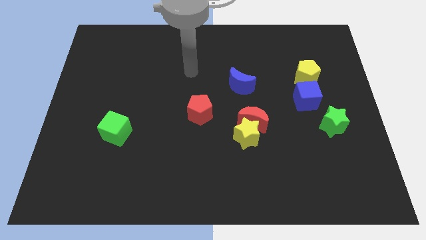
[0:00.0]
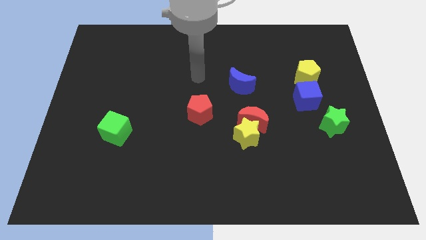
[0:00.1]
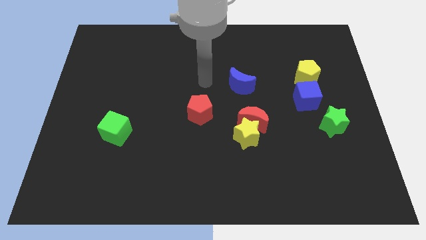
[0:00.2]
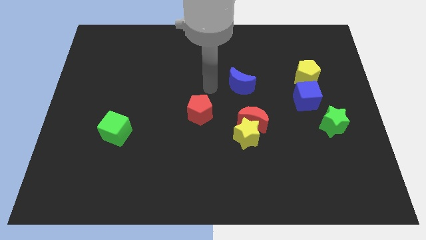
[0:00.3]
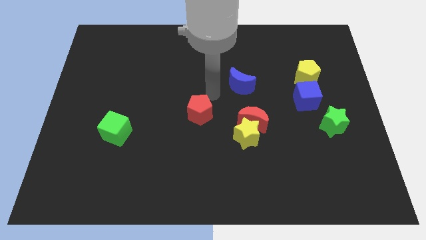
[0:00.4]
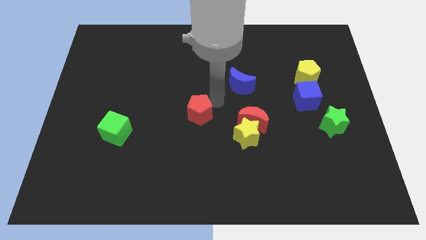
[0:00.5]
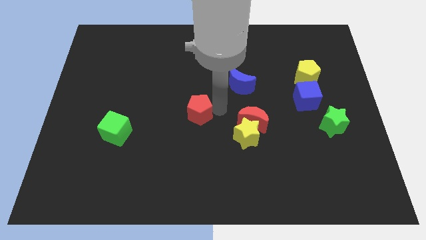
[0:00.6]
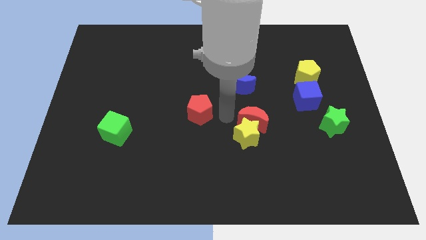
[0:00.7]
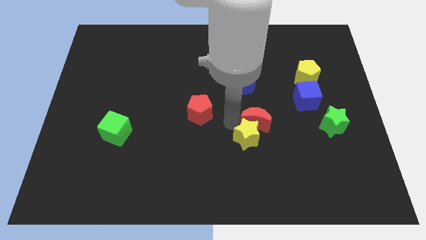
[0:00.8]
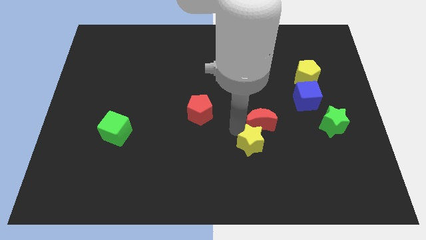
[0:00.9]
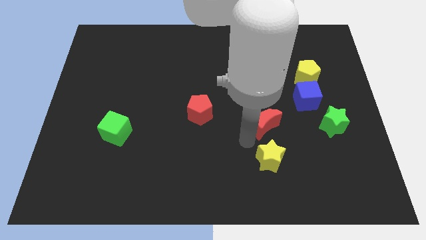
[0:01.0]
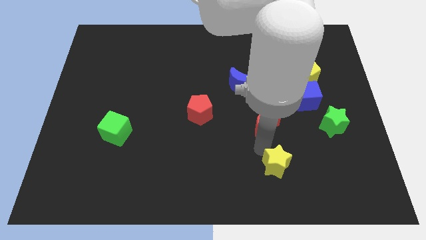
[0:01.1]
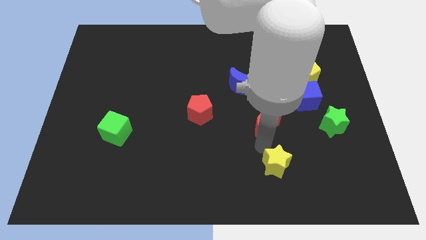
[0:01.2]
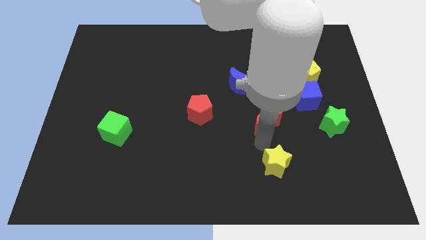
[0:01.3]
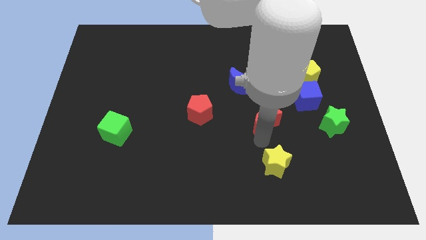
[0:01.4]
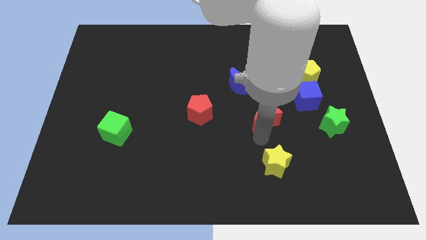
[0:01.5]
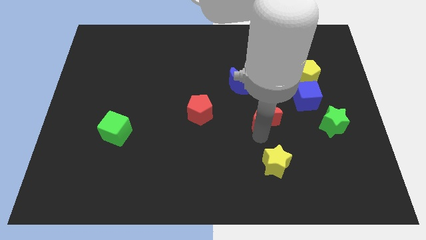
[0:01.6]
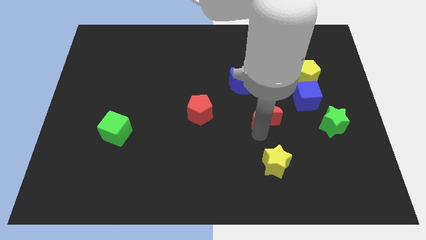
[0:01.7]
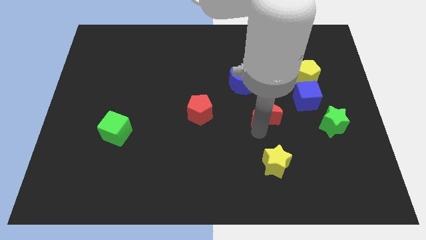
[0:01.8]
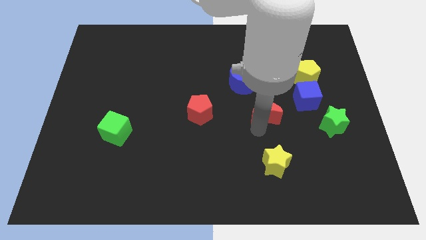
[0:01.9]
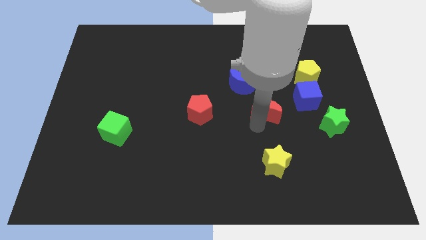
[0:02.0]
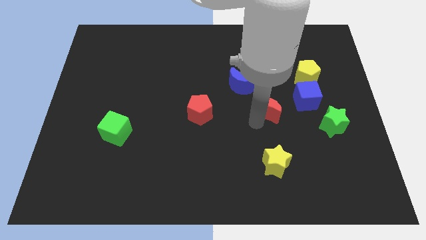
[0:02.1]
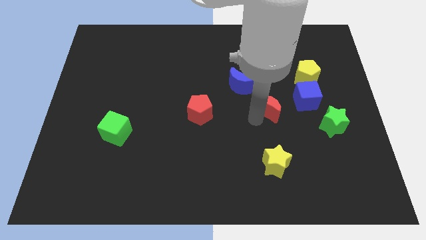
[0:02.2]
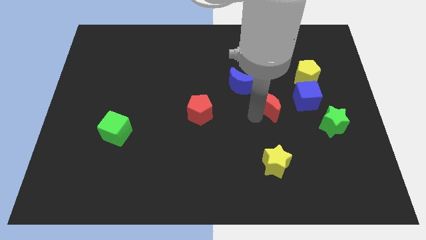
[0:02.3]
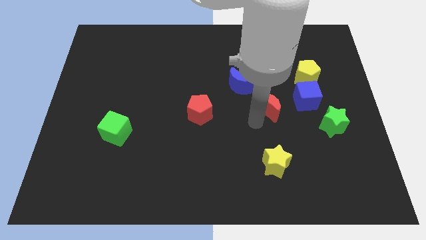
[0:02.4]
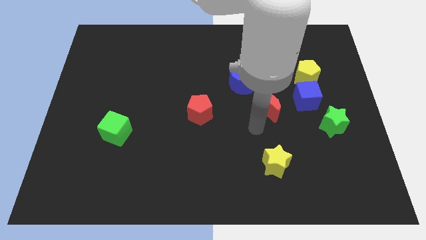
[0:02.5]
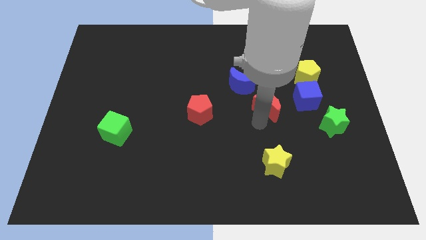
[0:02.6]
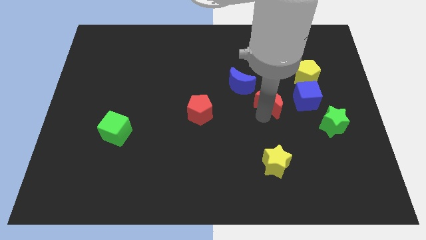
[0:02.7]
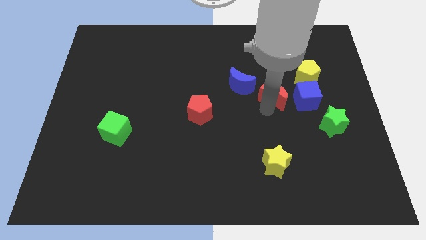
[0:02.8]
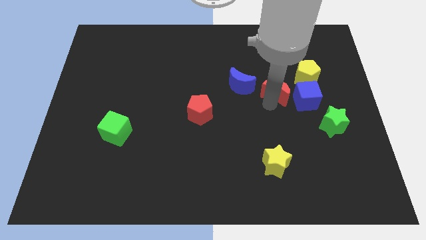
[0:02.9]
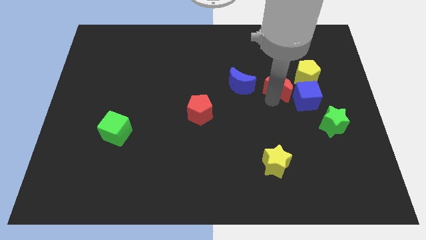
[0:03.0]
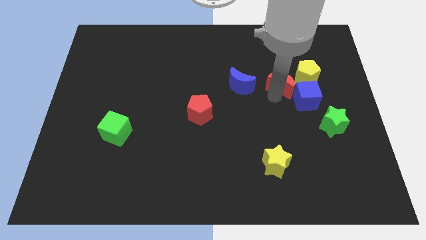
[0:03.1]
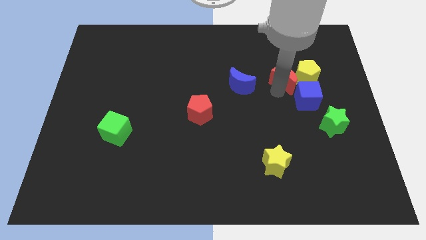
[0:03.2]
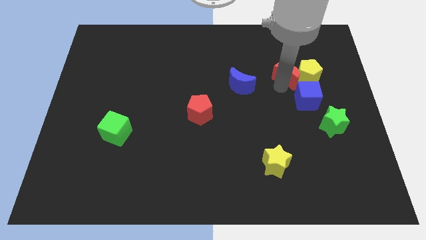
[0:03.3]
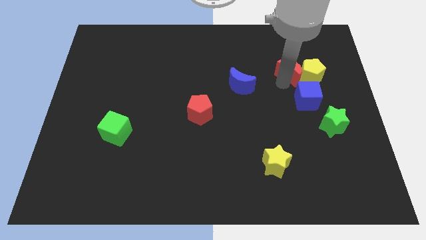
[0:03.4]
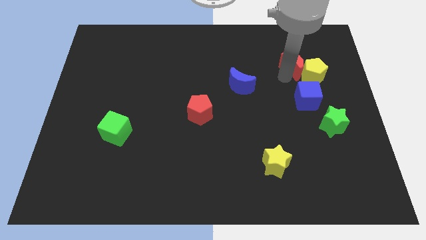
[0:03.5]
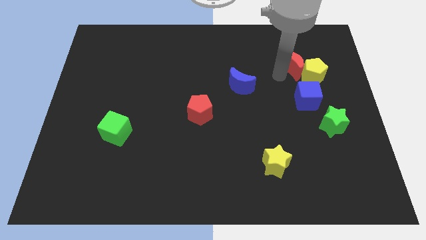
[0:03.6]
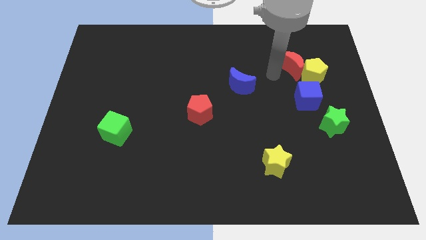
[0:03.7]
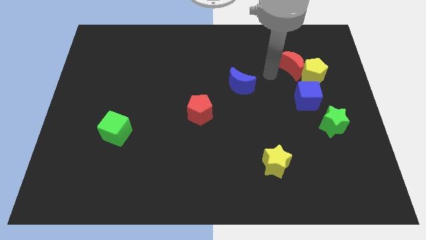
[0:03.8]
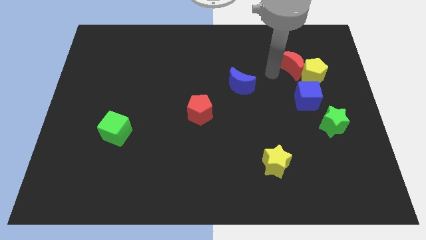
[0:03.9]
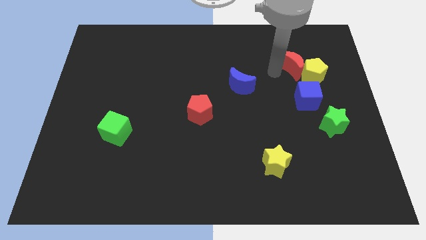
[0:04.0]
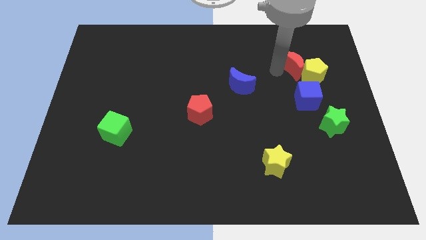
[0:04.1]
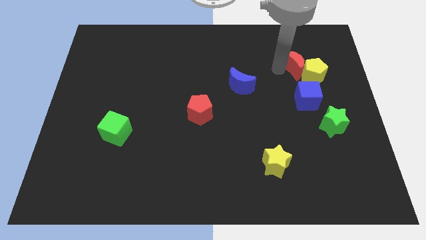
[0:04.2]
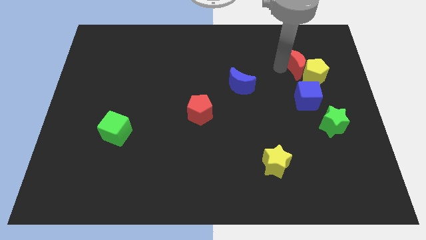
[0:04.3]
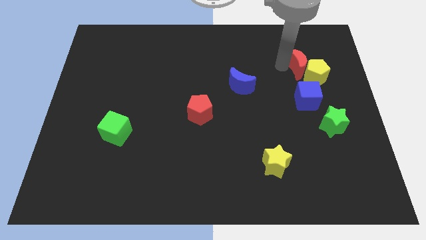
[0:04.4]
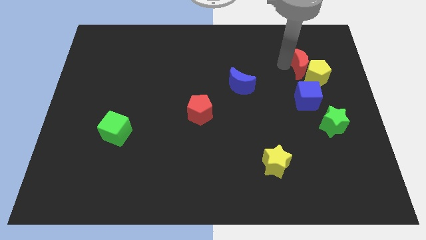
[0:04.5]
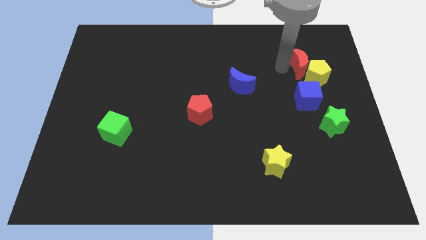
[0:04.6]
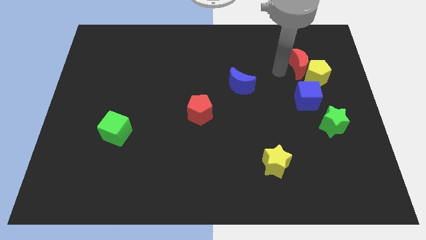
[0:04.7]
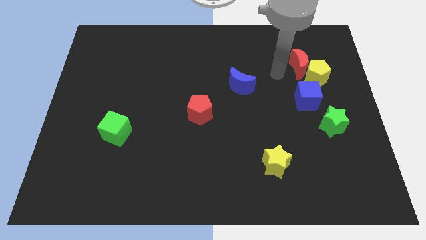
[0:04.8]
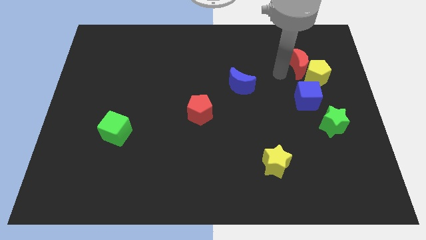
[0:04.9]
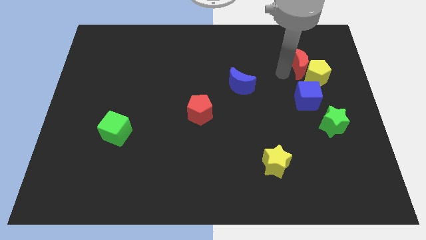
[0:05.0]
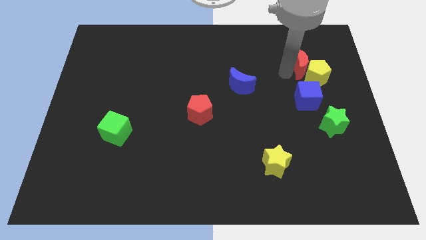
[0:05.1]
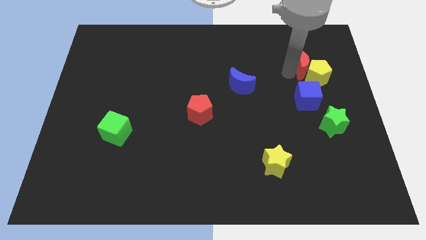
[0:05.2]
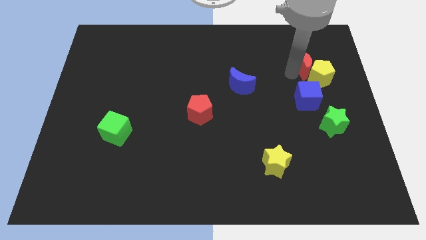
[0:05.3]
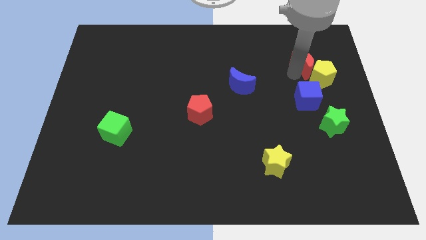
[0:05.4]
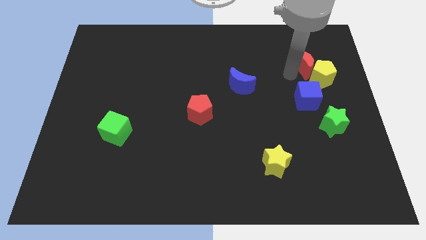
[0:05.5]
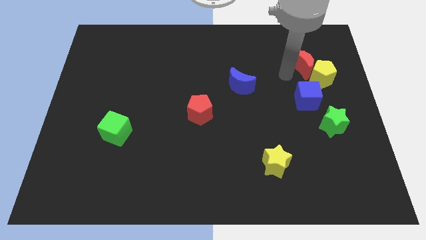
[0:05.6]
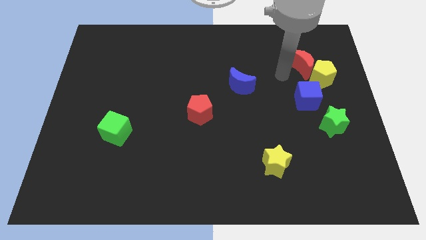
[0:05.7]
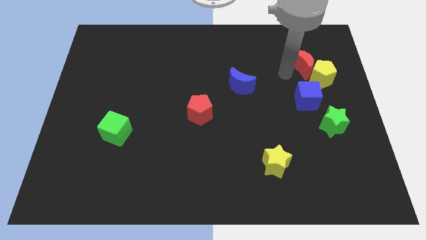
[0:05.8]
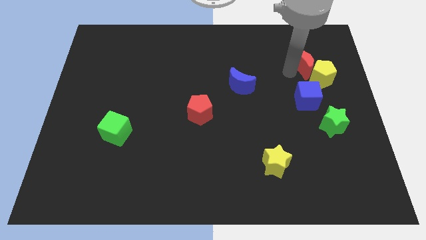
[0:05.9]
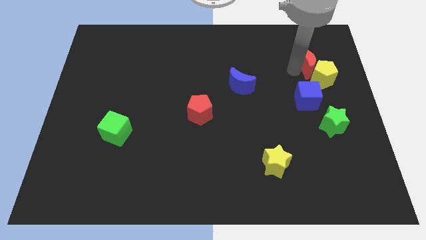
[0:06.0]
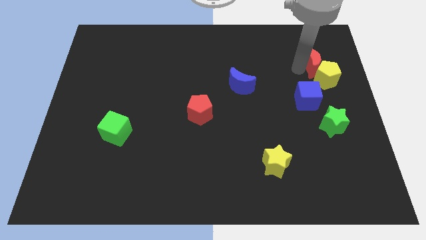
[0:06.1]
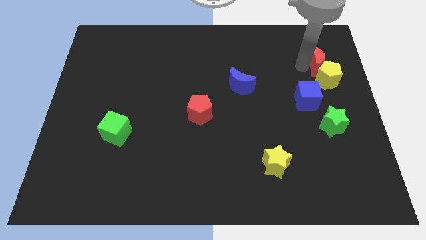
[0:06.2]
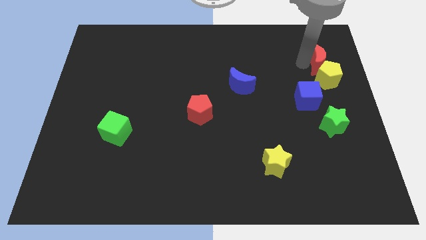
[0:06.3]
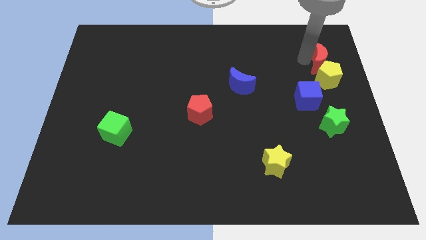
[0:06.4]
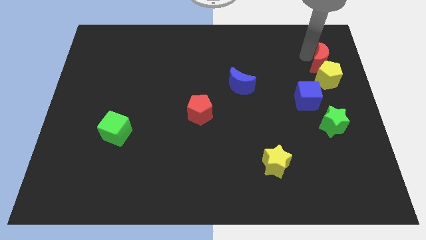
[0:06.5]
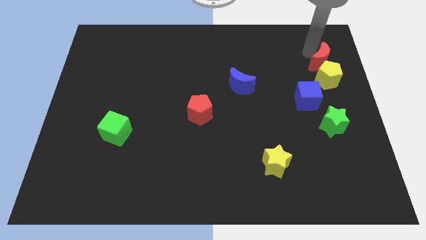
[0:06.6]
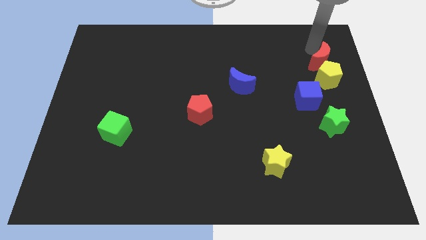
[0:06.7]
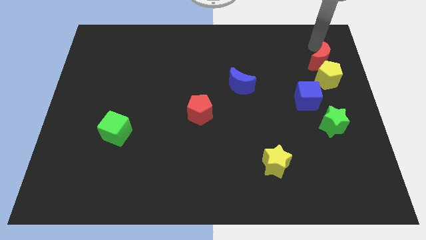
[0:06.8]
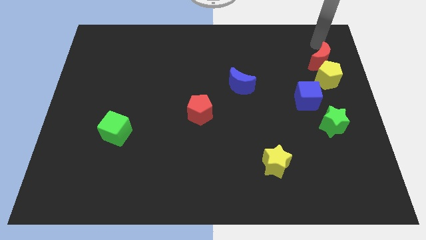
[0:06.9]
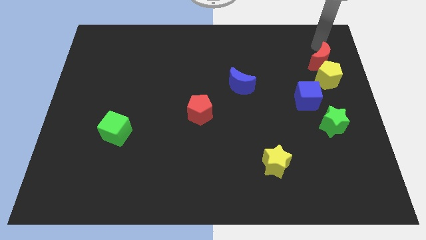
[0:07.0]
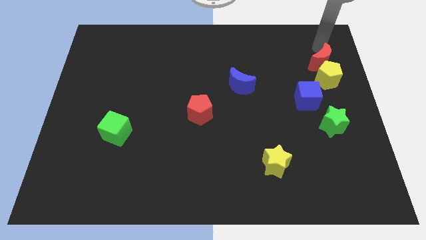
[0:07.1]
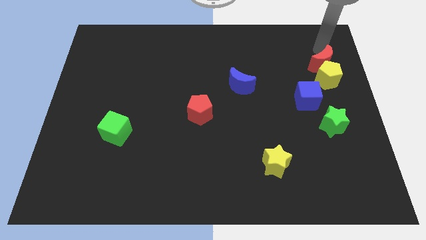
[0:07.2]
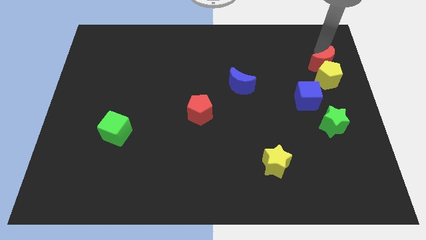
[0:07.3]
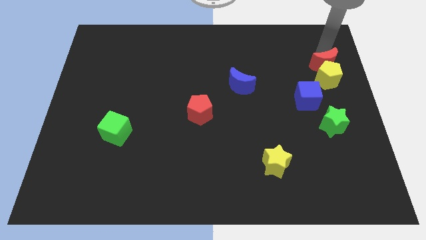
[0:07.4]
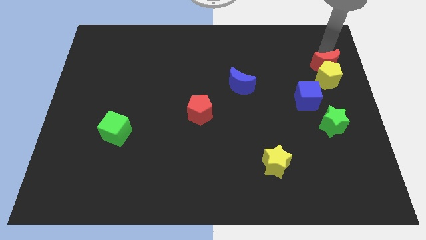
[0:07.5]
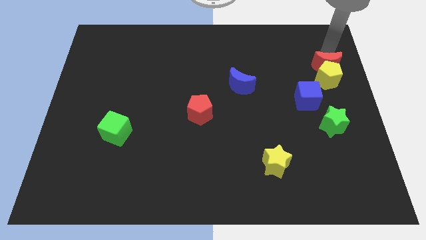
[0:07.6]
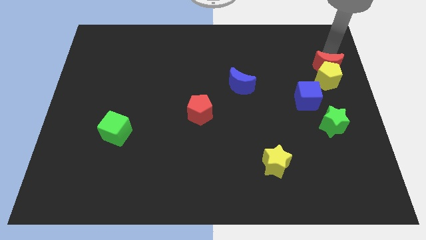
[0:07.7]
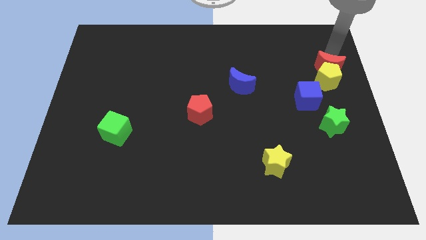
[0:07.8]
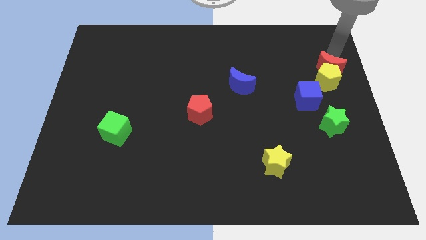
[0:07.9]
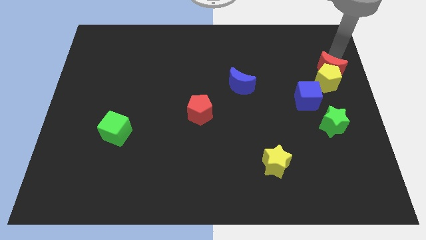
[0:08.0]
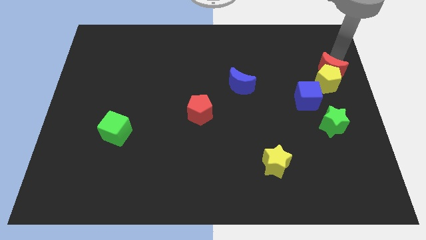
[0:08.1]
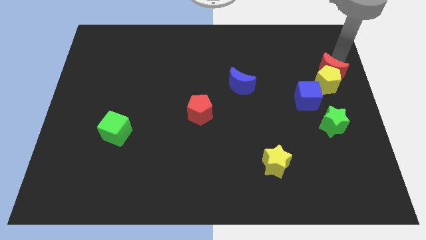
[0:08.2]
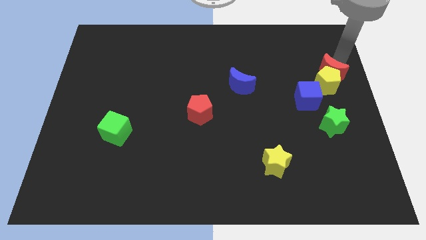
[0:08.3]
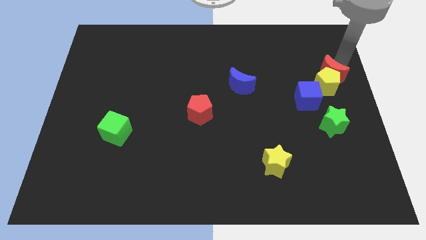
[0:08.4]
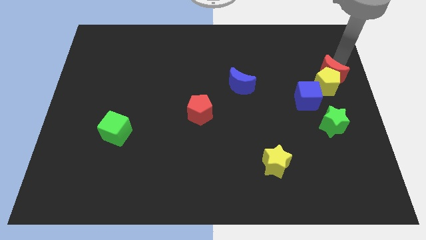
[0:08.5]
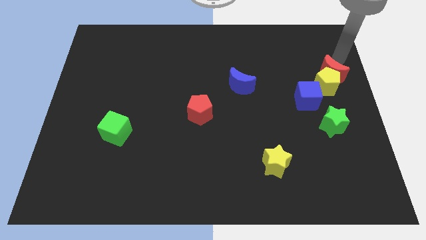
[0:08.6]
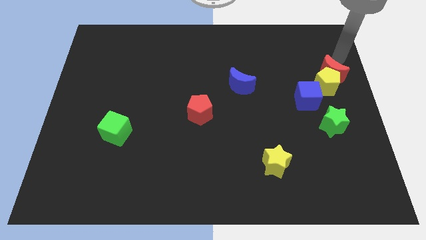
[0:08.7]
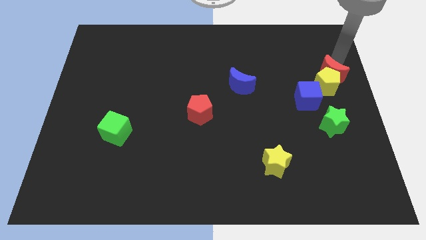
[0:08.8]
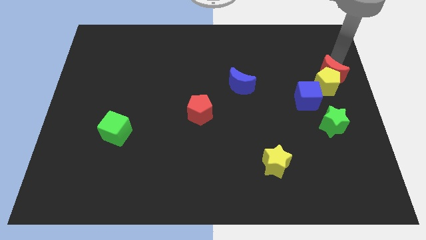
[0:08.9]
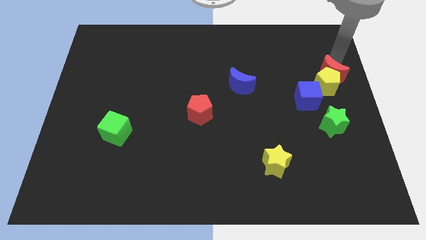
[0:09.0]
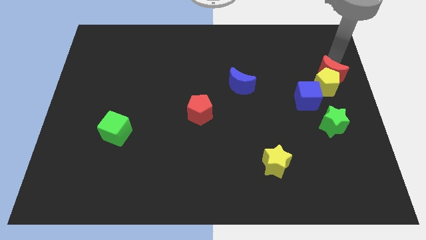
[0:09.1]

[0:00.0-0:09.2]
push the red moon to the top of the green star
